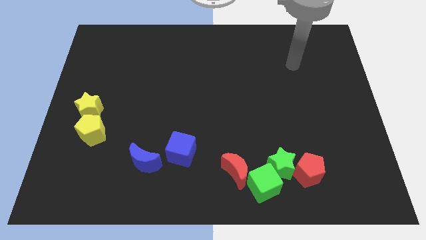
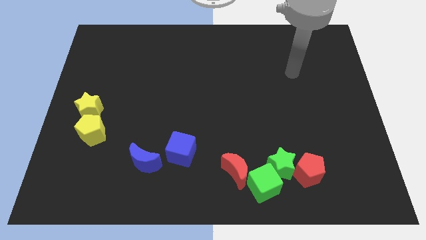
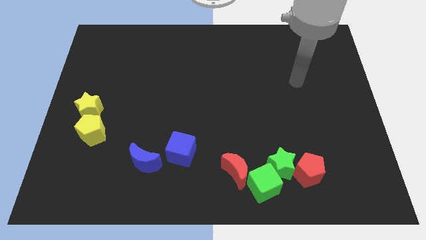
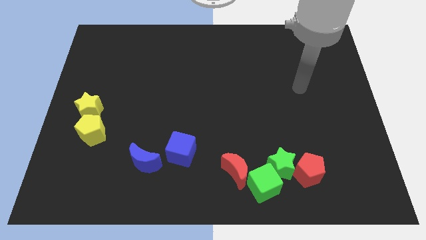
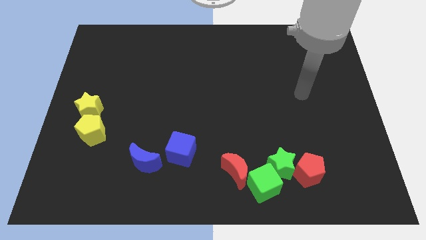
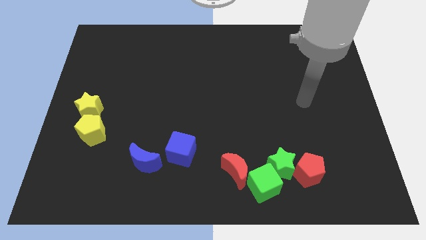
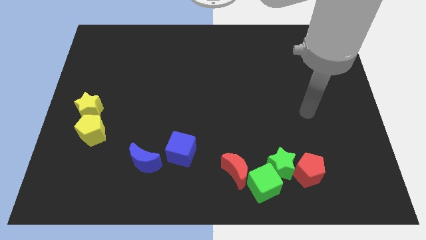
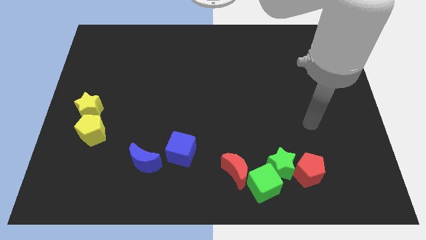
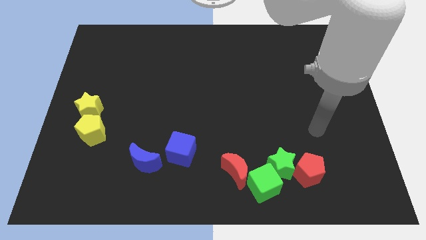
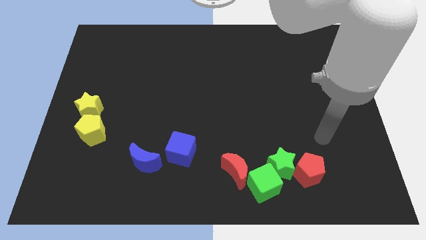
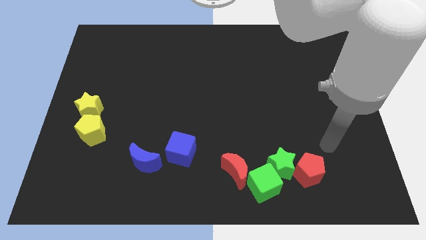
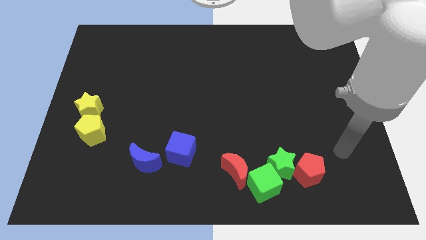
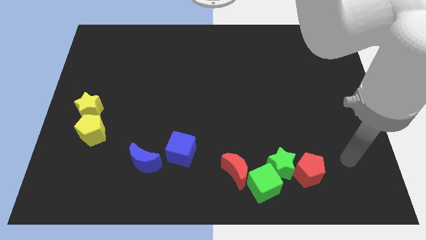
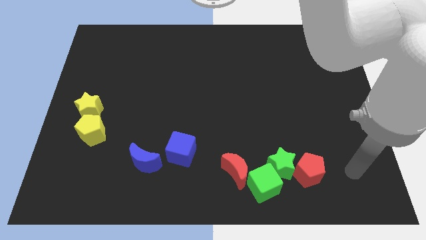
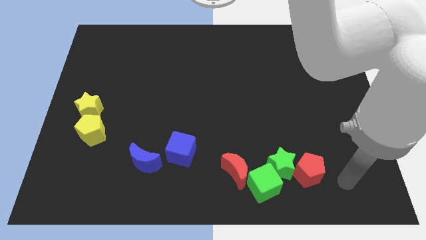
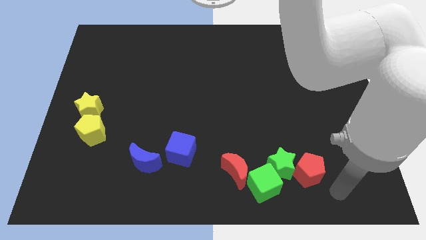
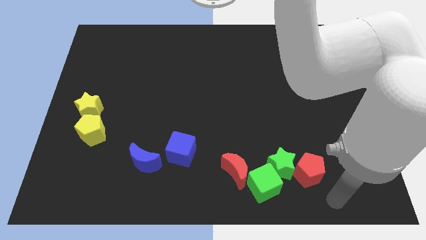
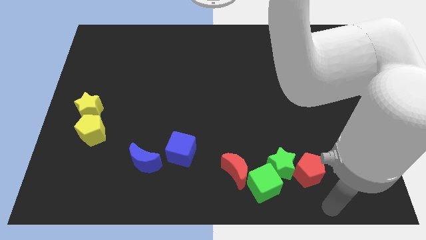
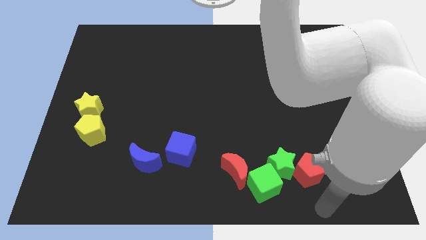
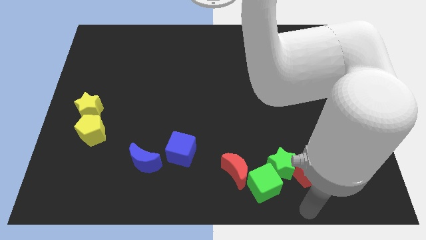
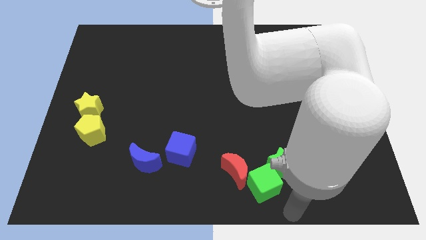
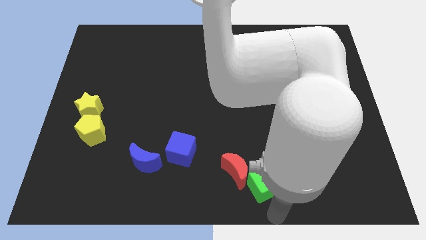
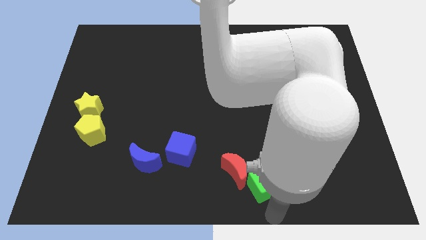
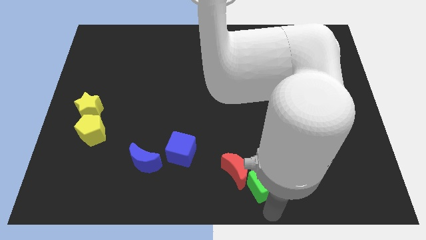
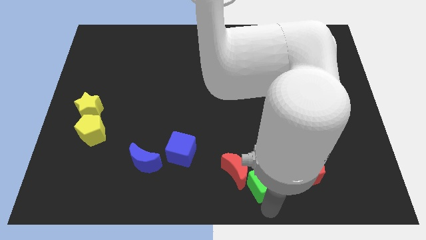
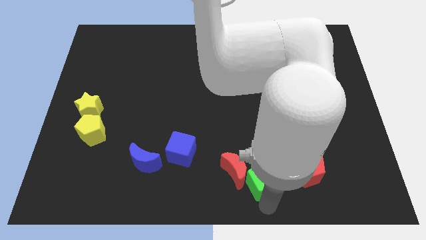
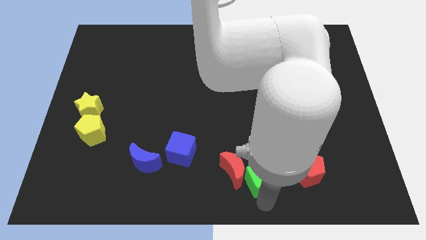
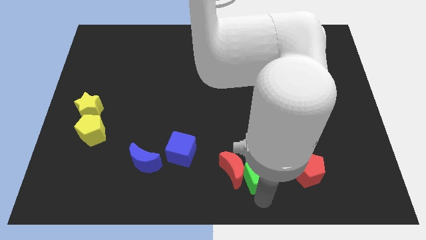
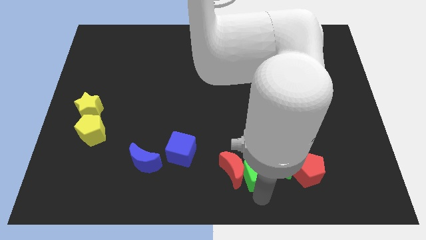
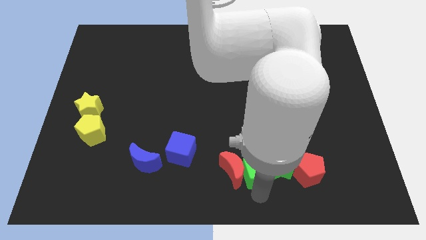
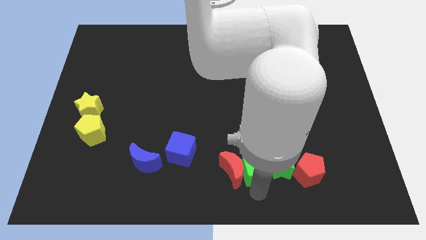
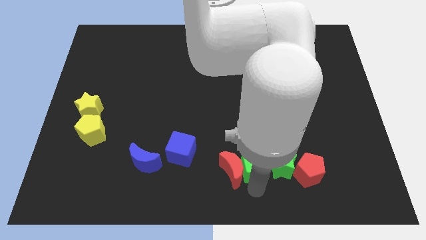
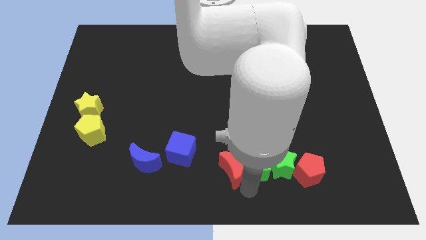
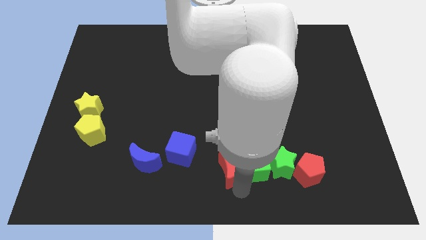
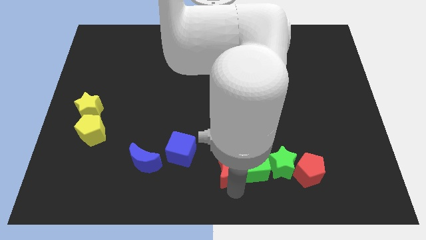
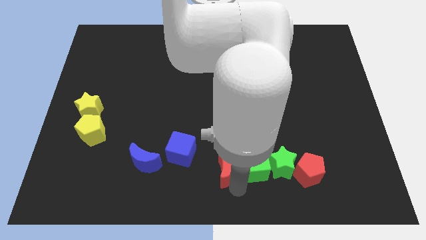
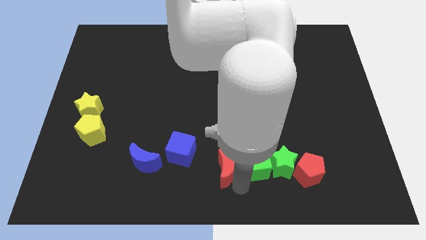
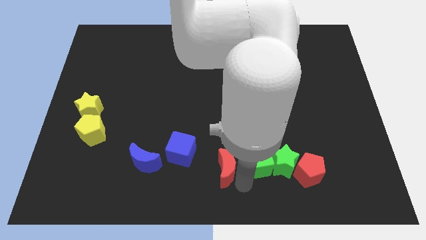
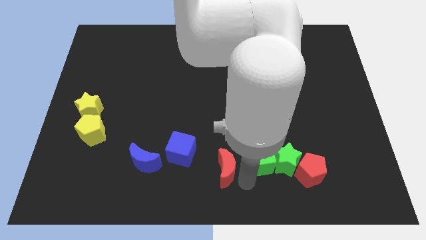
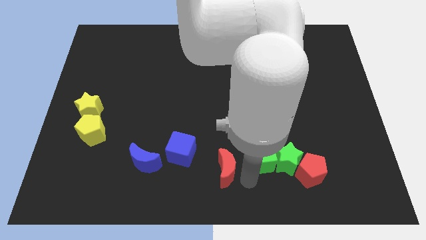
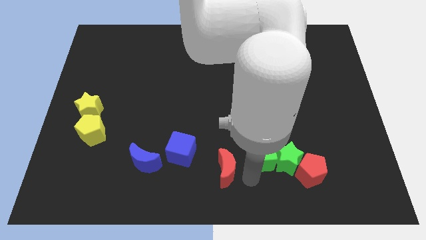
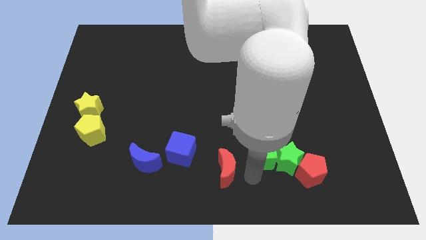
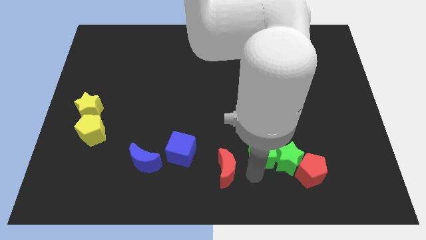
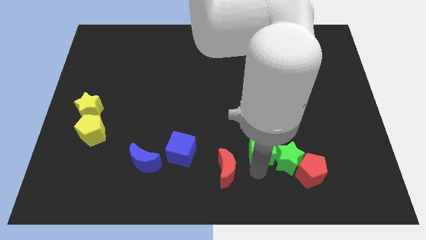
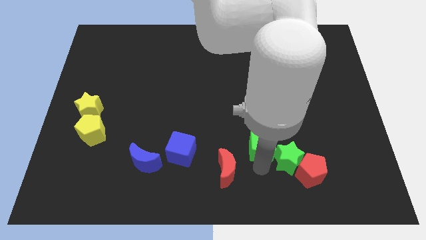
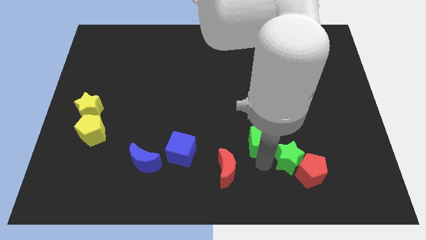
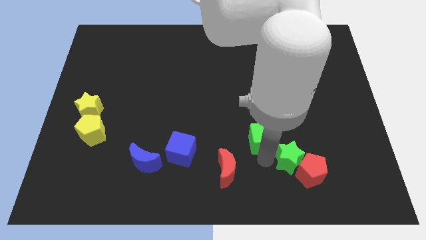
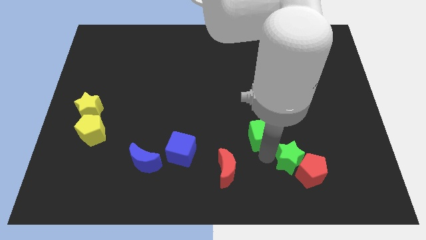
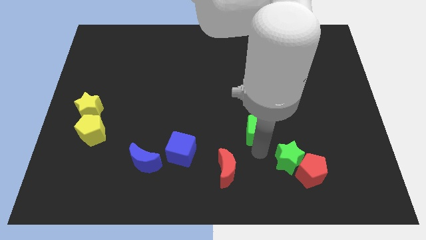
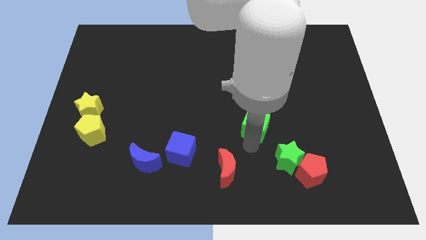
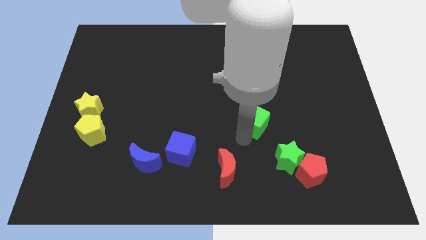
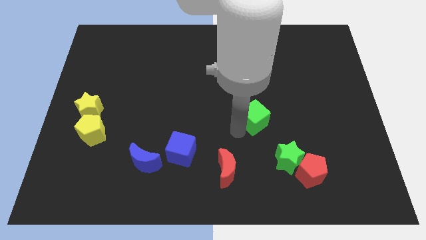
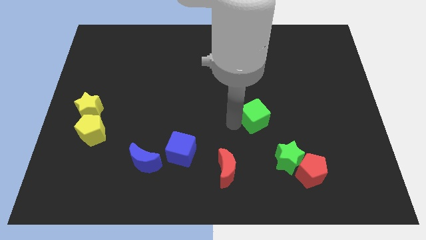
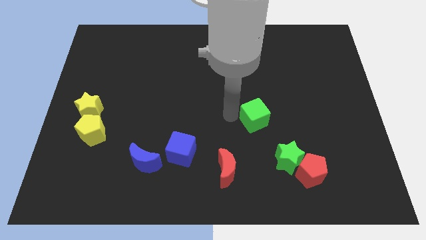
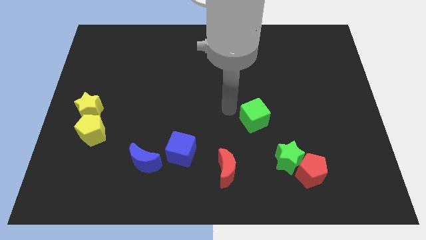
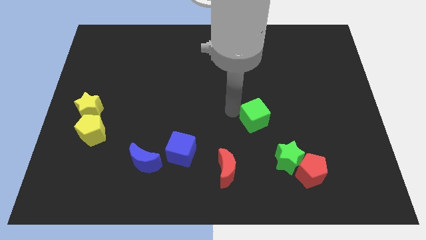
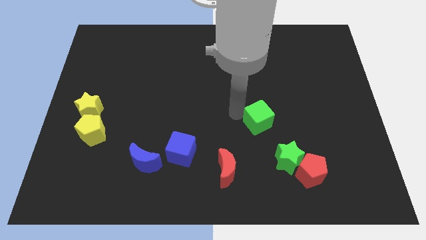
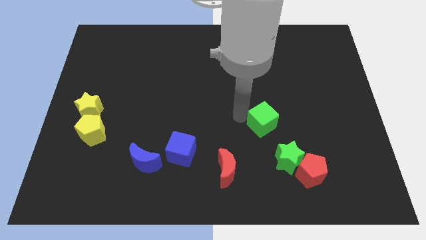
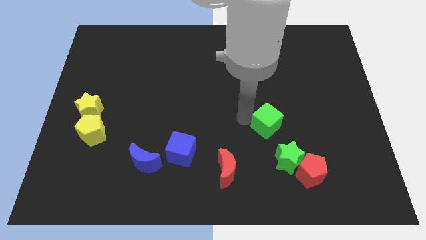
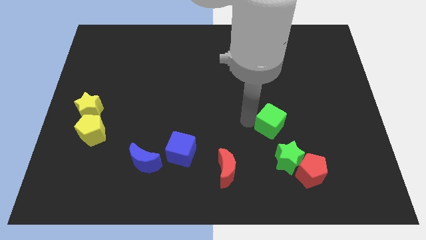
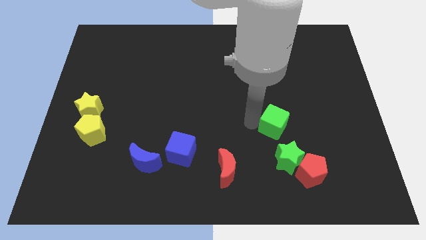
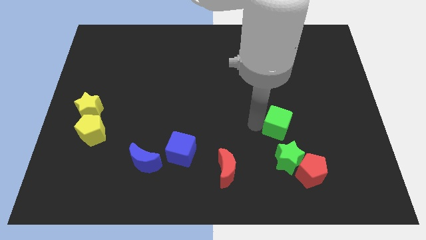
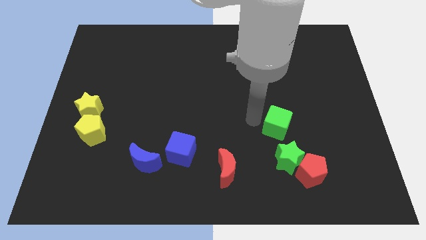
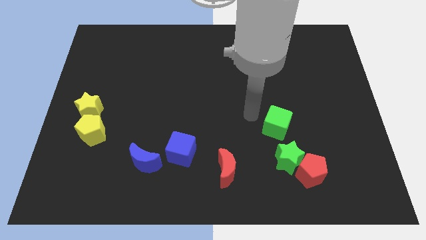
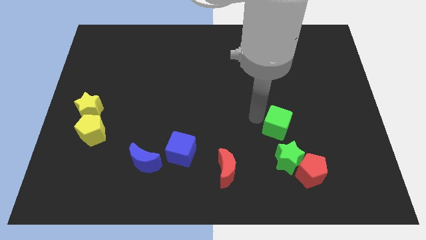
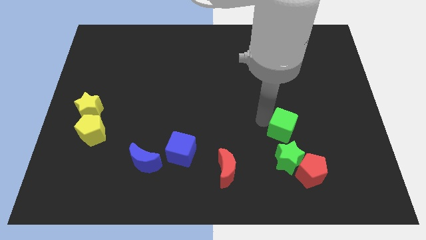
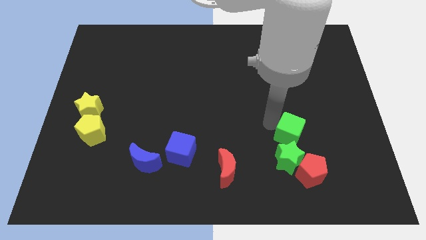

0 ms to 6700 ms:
move the green cube to the top right side of the green star

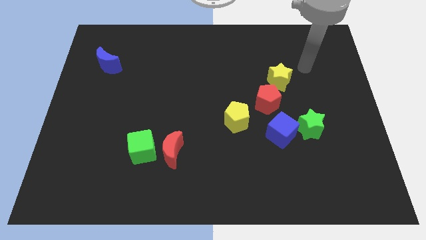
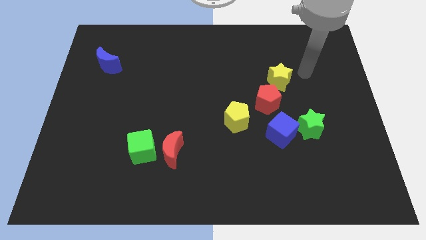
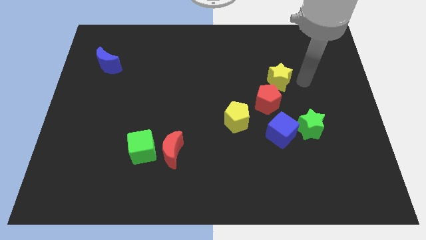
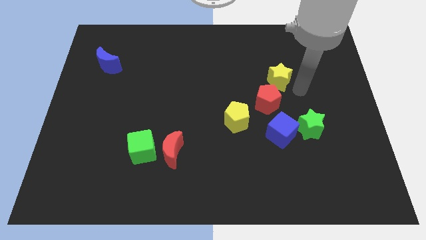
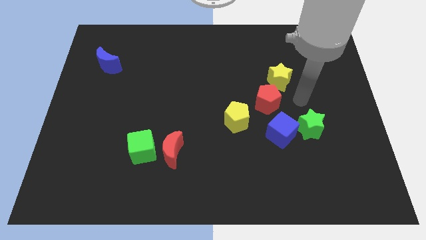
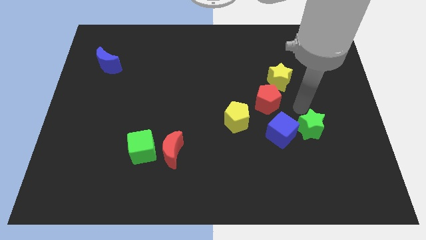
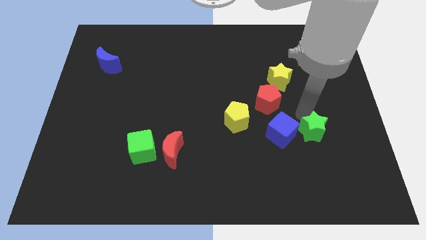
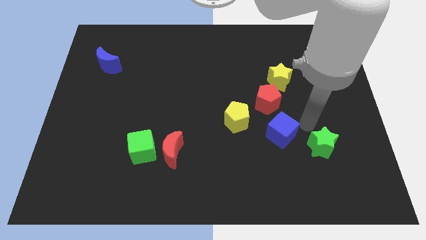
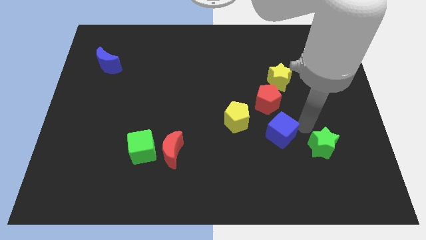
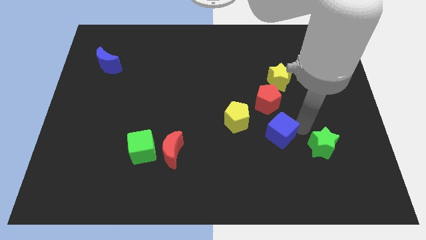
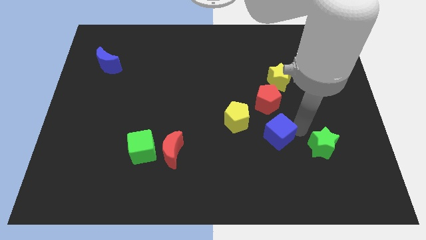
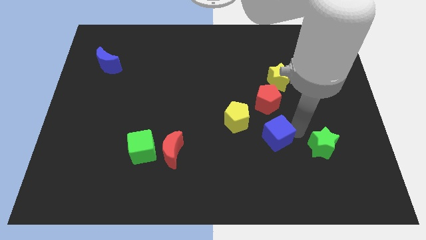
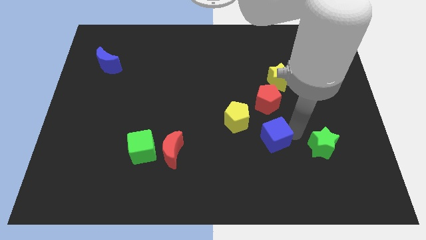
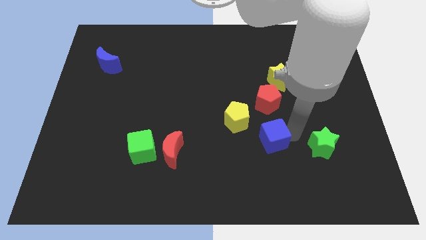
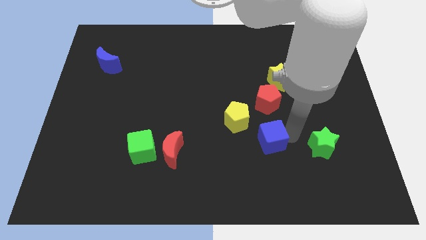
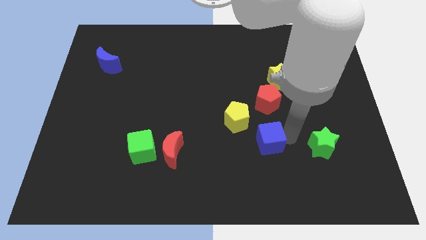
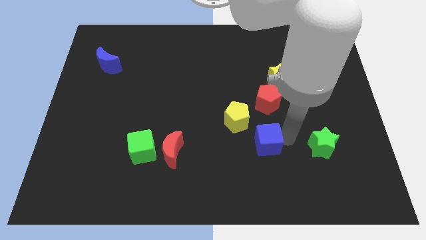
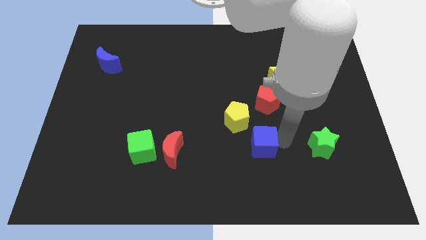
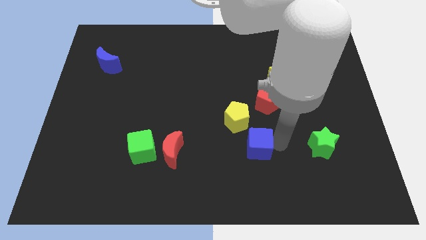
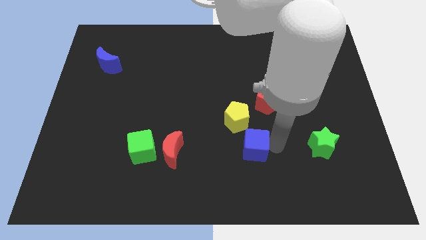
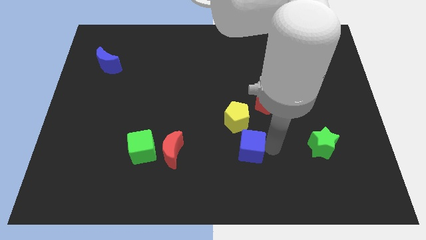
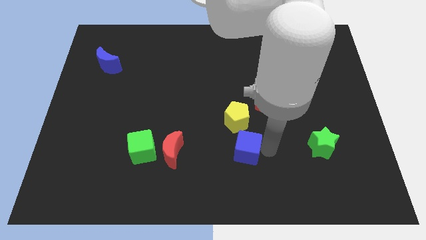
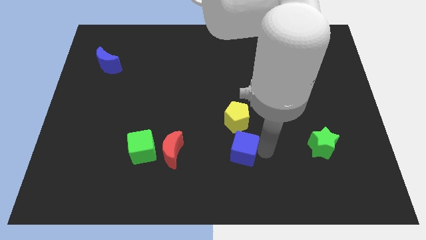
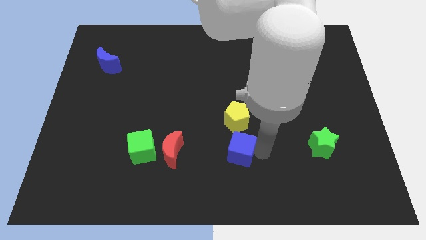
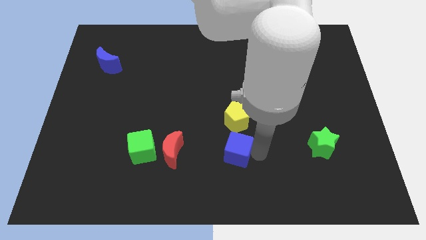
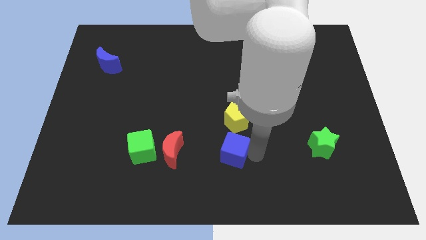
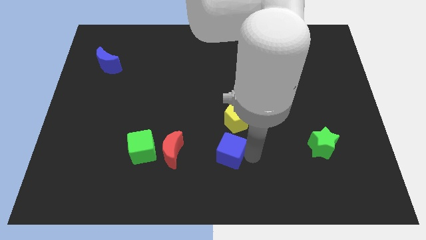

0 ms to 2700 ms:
move the blue cube diagonally down and to the left of the yellow pentagon
